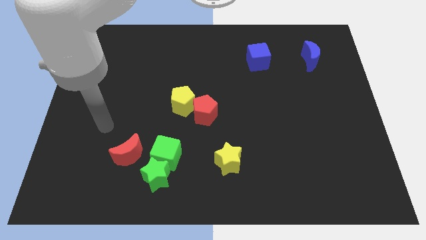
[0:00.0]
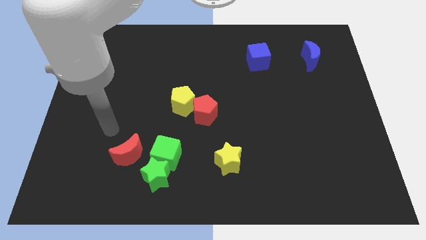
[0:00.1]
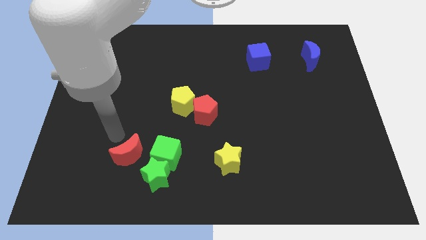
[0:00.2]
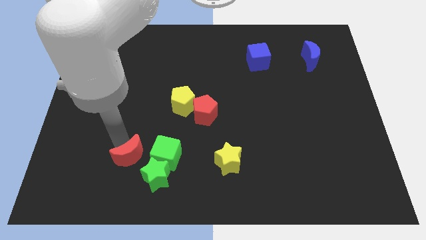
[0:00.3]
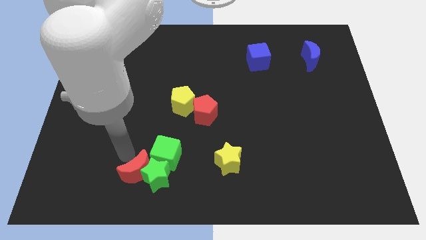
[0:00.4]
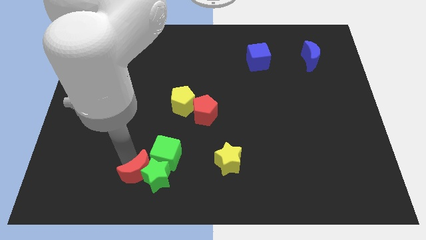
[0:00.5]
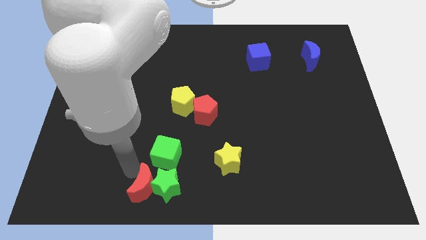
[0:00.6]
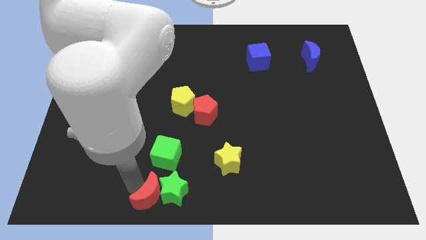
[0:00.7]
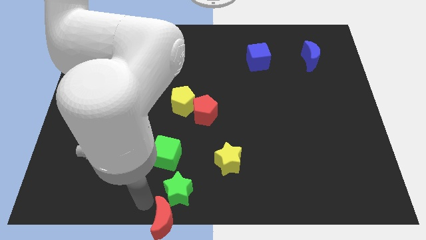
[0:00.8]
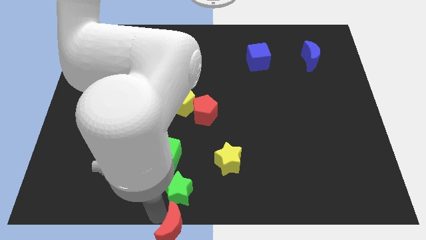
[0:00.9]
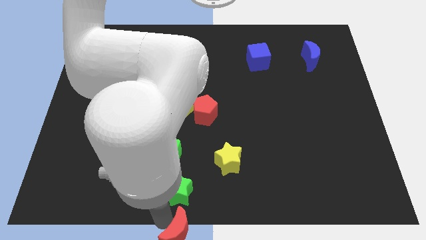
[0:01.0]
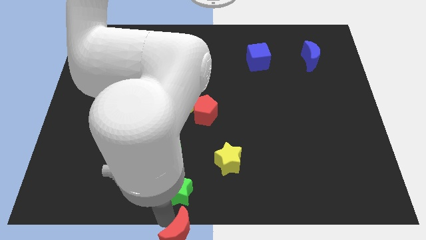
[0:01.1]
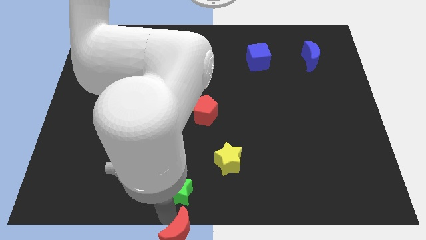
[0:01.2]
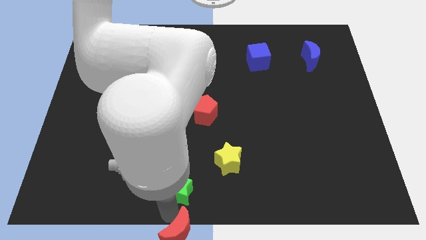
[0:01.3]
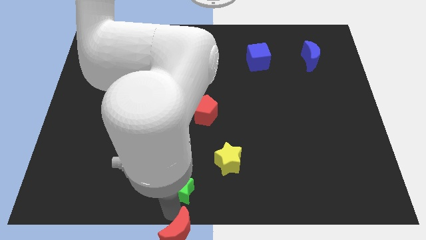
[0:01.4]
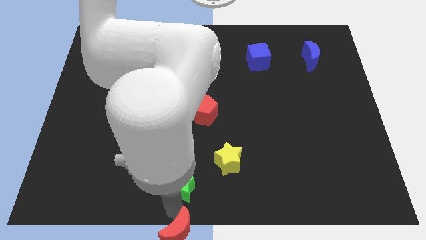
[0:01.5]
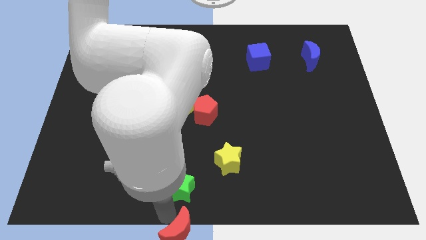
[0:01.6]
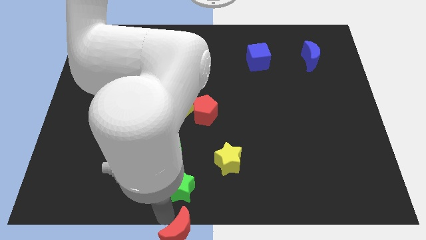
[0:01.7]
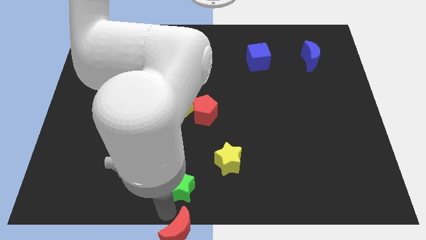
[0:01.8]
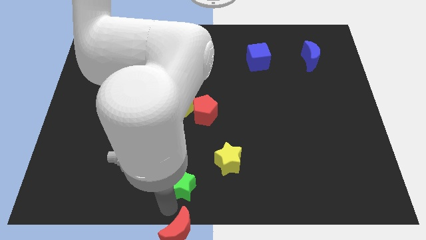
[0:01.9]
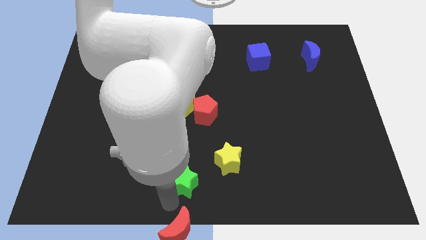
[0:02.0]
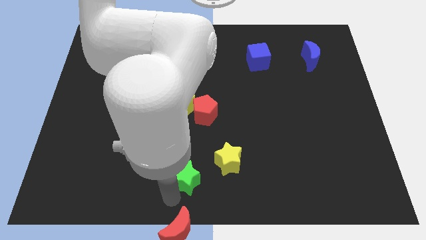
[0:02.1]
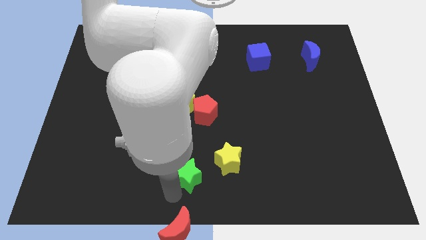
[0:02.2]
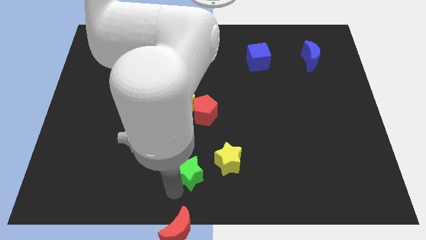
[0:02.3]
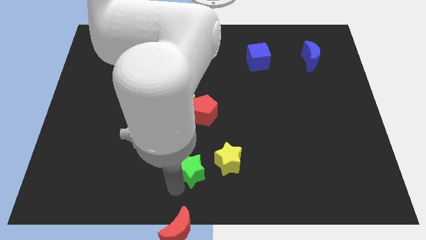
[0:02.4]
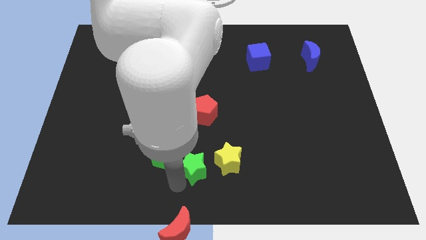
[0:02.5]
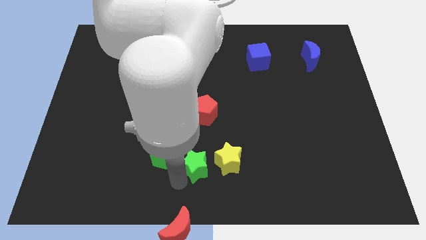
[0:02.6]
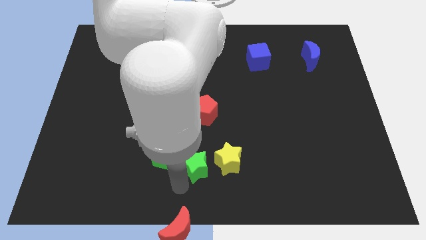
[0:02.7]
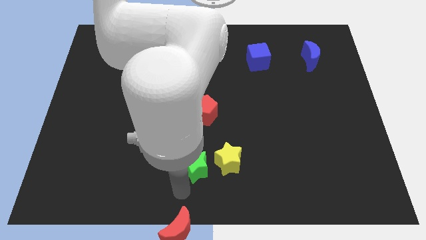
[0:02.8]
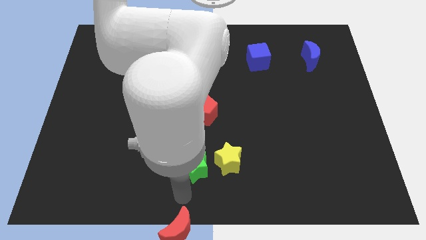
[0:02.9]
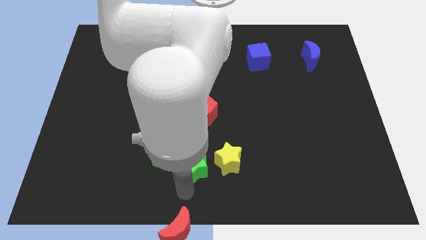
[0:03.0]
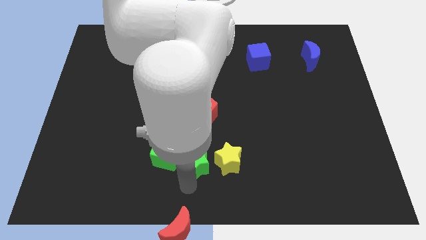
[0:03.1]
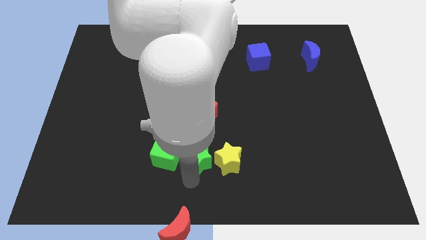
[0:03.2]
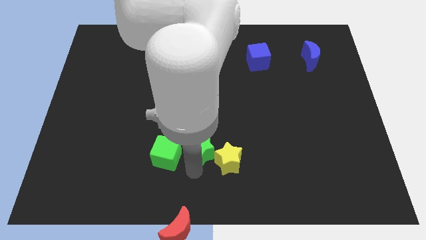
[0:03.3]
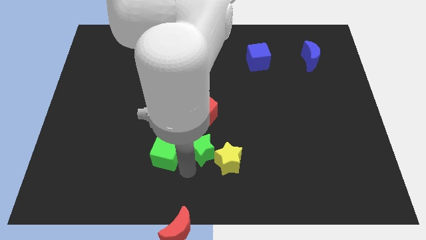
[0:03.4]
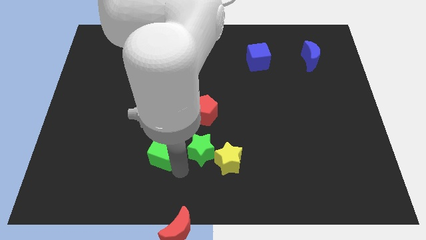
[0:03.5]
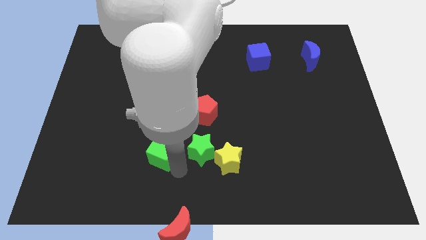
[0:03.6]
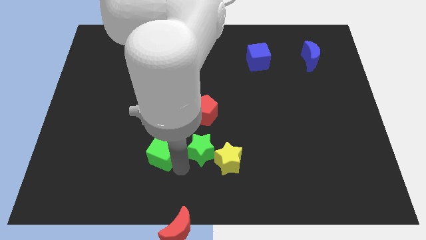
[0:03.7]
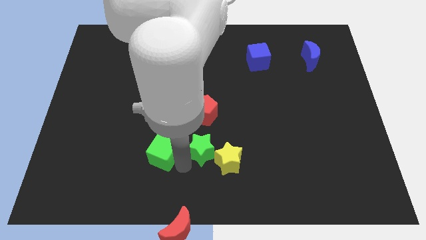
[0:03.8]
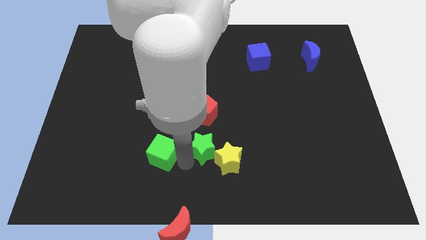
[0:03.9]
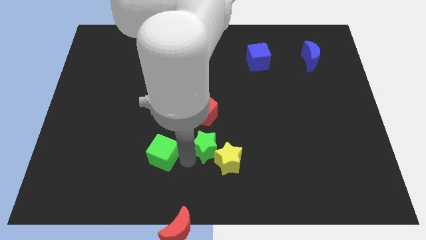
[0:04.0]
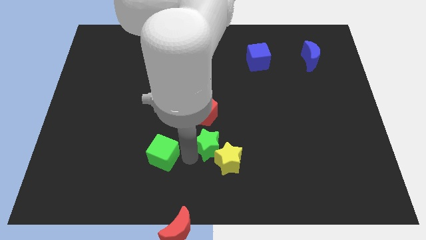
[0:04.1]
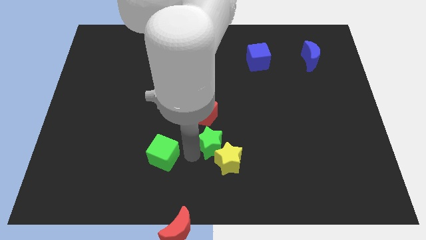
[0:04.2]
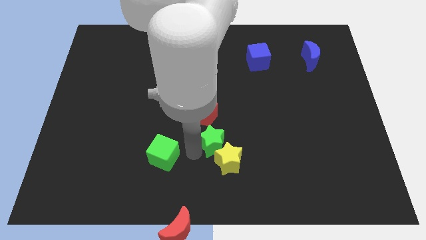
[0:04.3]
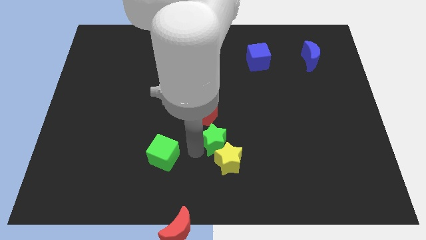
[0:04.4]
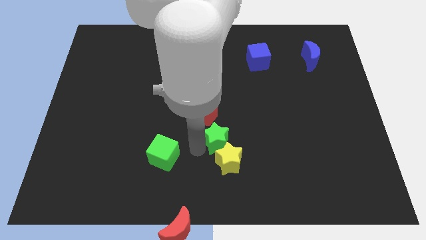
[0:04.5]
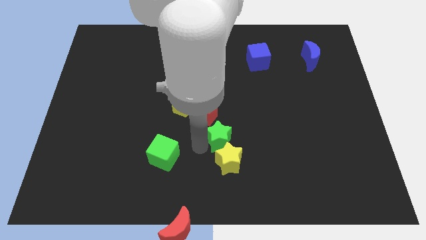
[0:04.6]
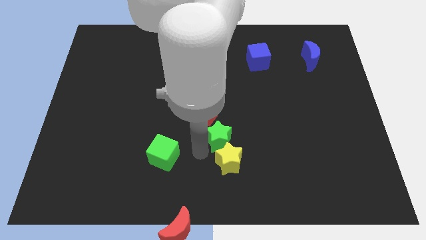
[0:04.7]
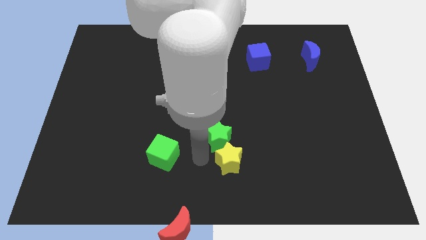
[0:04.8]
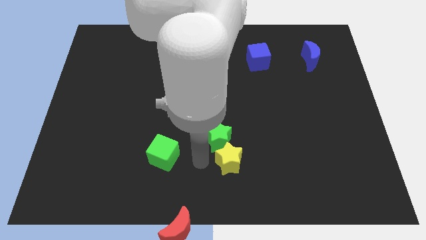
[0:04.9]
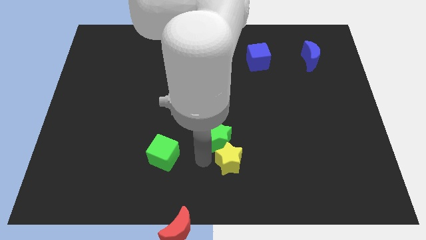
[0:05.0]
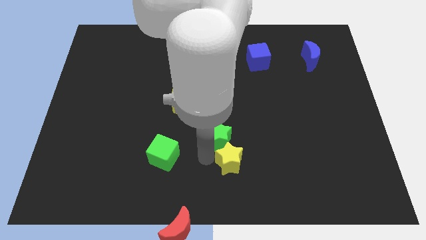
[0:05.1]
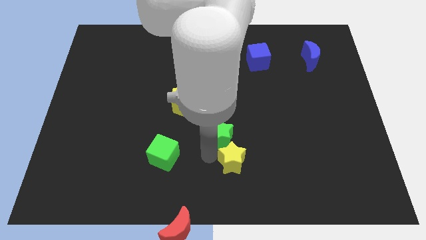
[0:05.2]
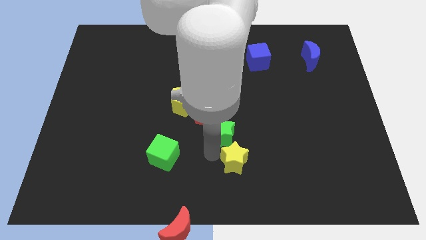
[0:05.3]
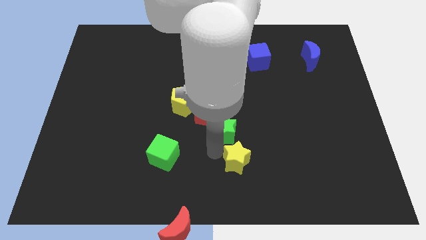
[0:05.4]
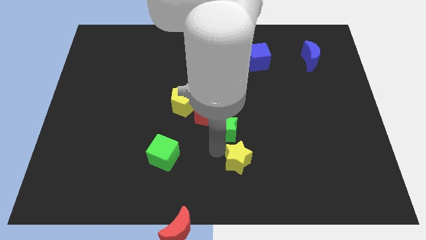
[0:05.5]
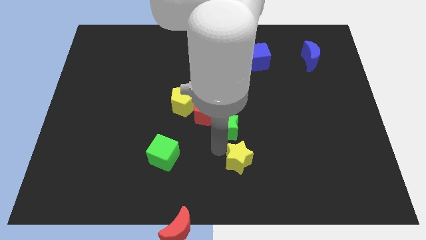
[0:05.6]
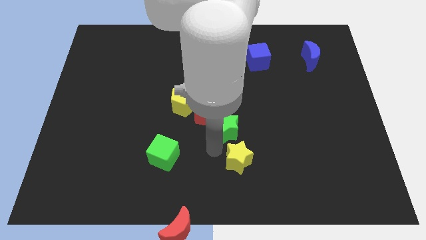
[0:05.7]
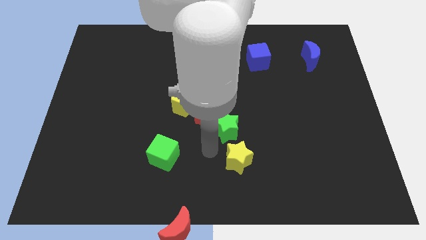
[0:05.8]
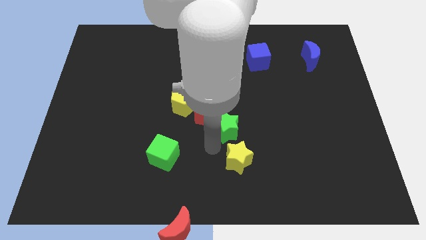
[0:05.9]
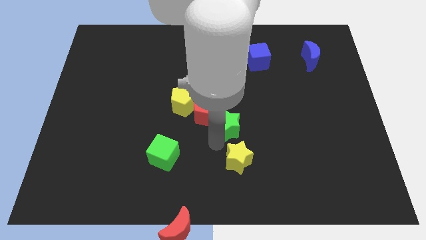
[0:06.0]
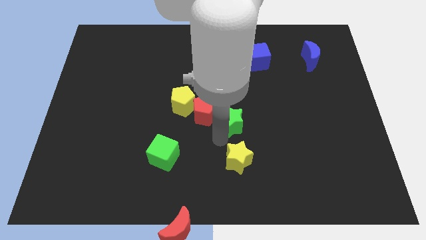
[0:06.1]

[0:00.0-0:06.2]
push the green star upwards and then to the right

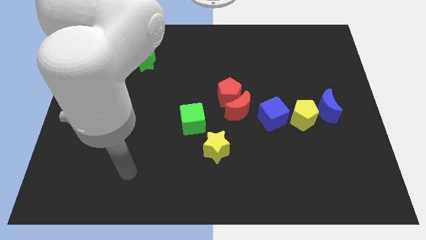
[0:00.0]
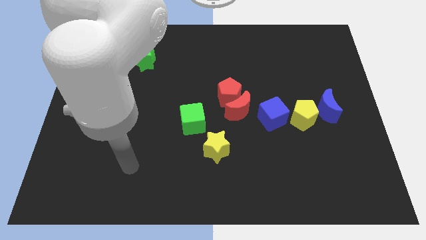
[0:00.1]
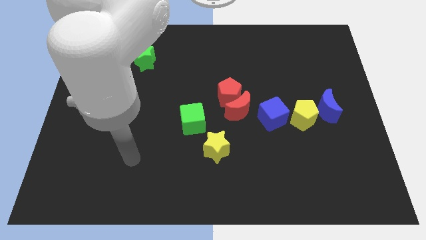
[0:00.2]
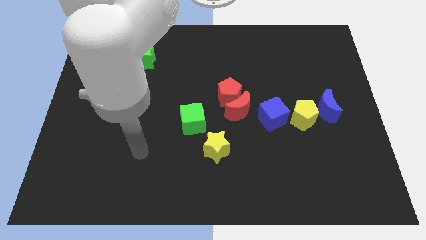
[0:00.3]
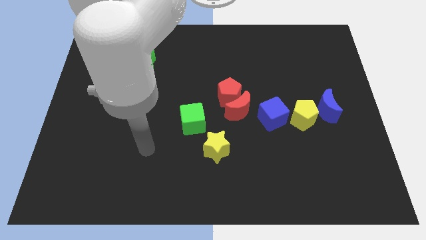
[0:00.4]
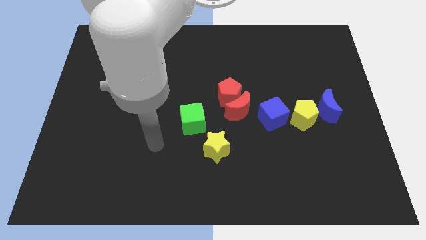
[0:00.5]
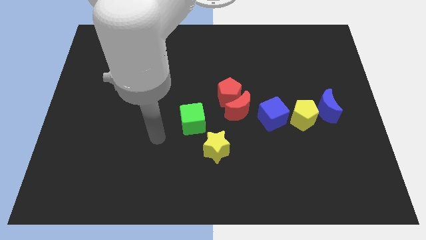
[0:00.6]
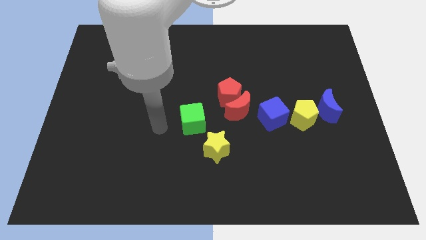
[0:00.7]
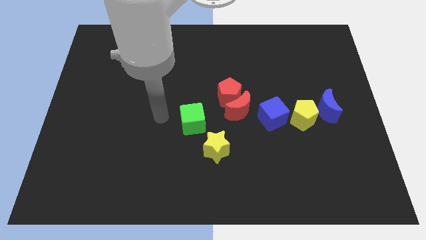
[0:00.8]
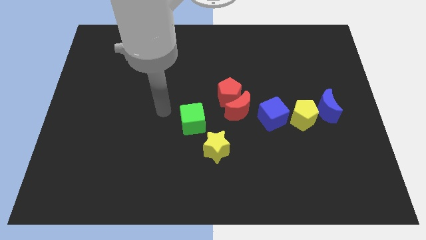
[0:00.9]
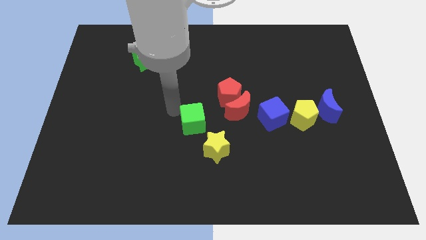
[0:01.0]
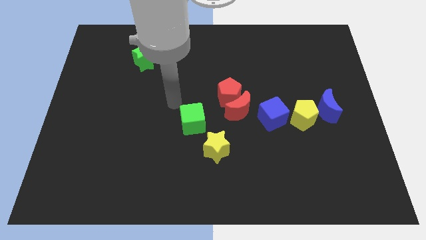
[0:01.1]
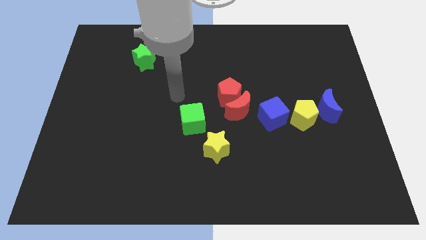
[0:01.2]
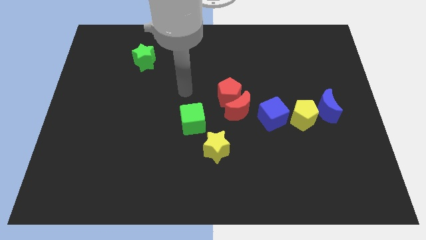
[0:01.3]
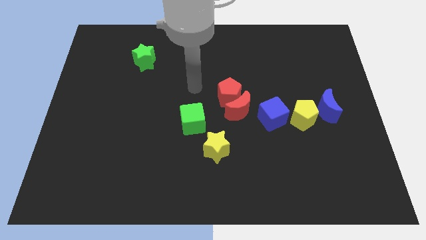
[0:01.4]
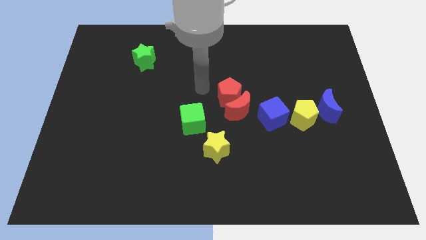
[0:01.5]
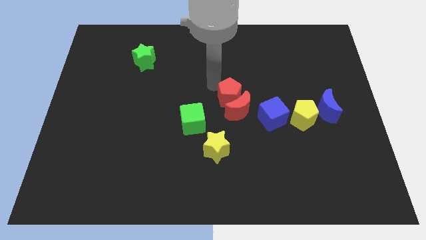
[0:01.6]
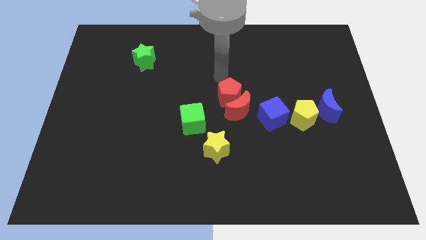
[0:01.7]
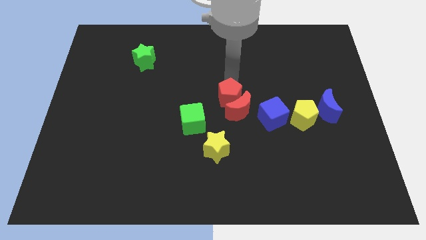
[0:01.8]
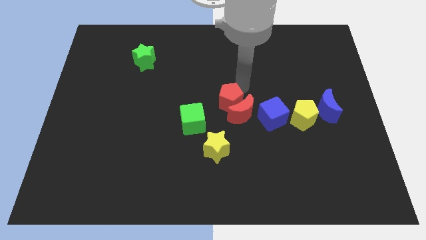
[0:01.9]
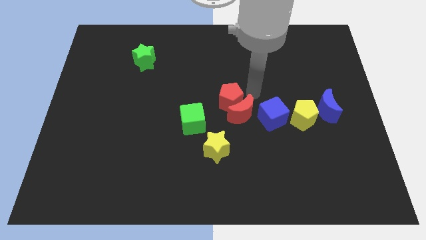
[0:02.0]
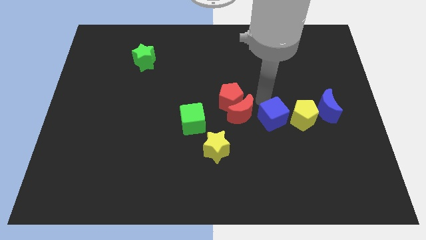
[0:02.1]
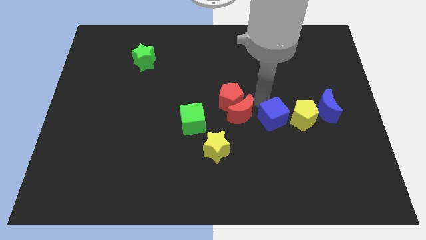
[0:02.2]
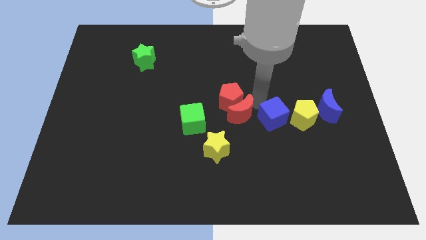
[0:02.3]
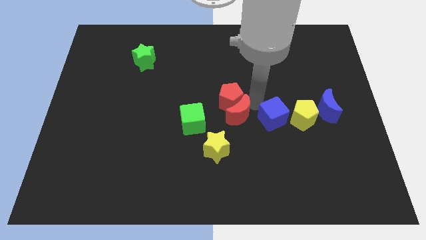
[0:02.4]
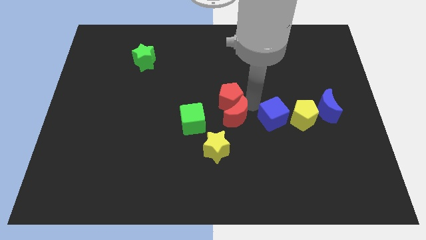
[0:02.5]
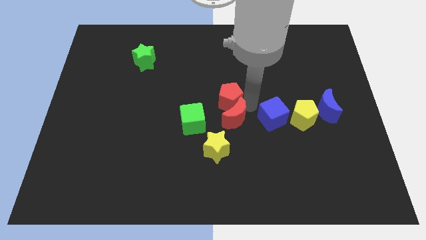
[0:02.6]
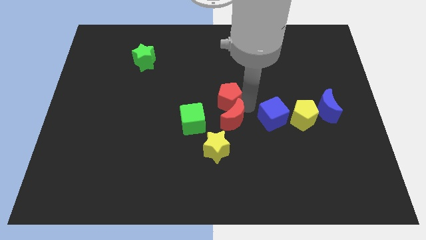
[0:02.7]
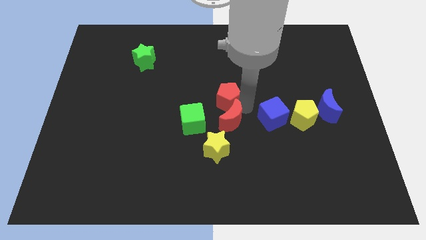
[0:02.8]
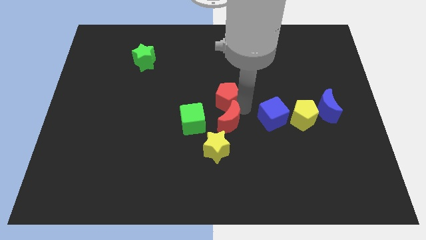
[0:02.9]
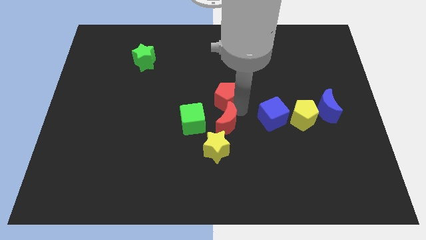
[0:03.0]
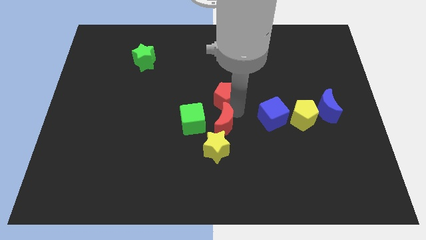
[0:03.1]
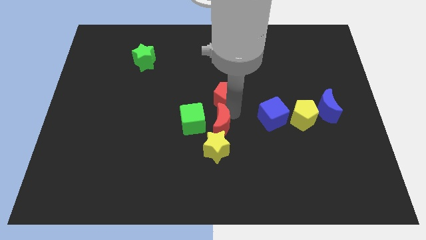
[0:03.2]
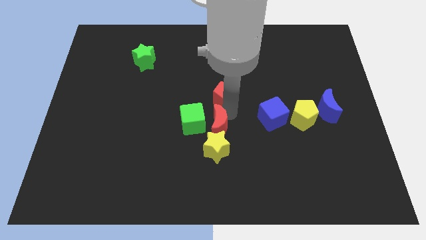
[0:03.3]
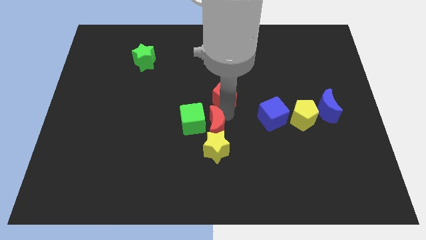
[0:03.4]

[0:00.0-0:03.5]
slide the red moon downwards and left a bit
